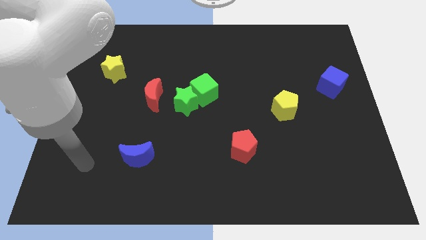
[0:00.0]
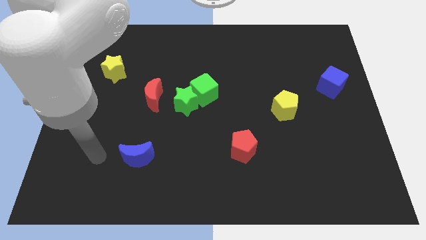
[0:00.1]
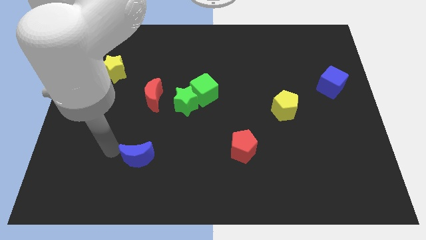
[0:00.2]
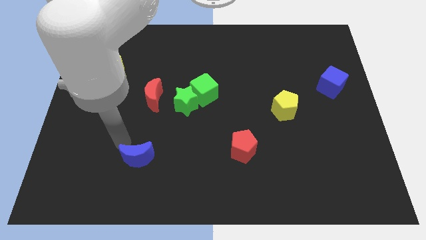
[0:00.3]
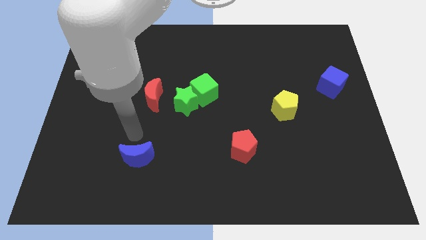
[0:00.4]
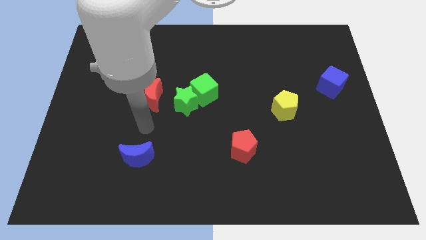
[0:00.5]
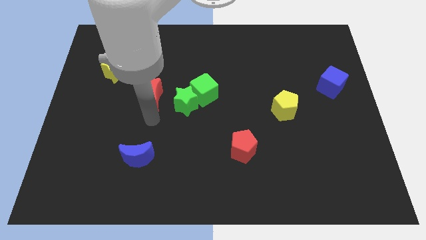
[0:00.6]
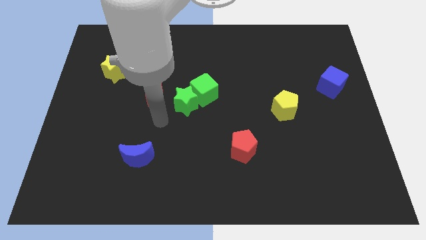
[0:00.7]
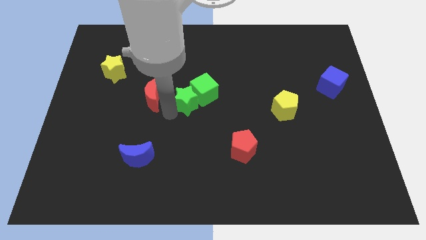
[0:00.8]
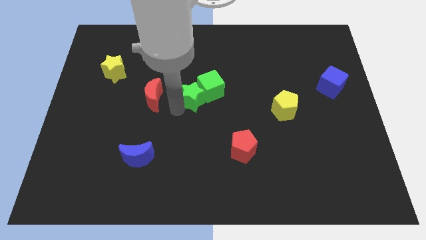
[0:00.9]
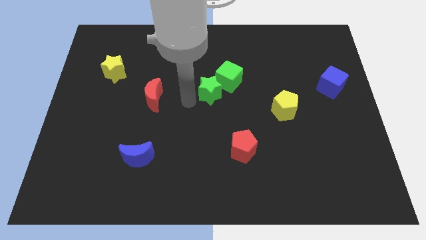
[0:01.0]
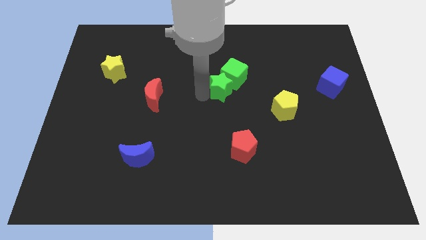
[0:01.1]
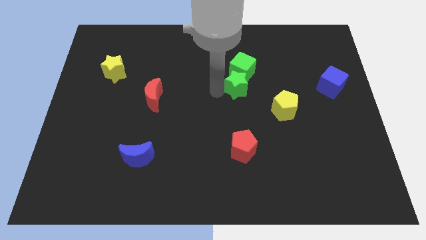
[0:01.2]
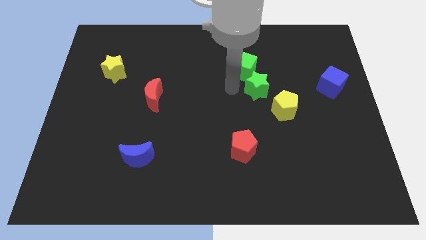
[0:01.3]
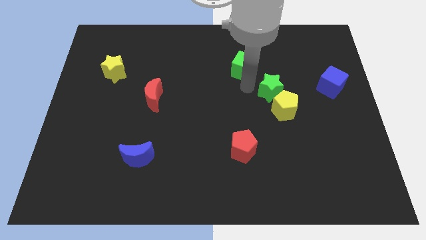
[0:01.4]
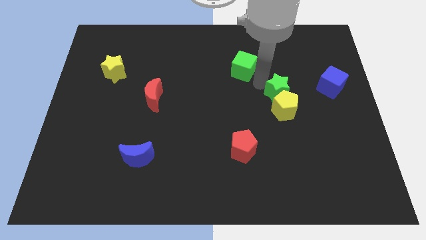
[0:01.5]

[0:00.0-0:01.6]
pull the green cube apart from the green star

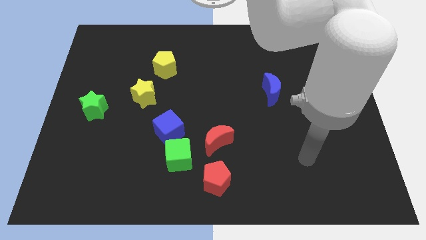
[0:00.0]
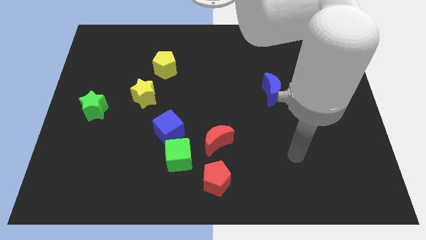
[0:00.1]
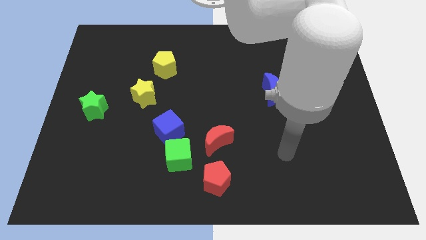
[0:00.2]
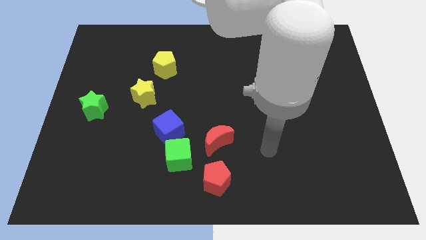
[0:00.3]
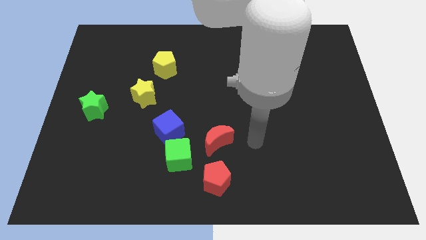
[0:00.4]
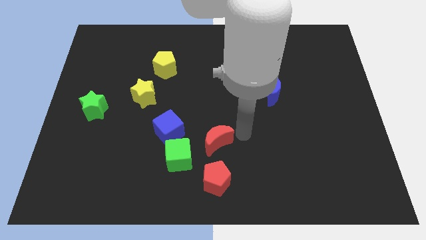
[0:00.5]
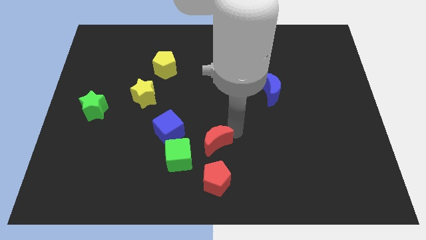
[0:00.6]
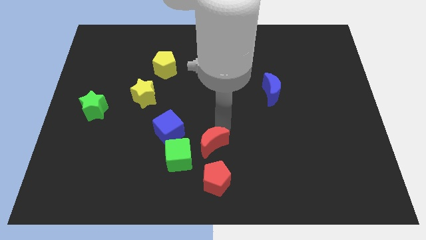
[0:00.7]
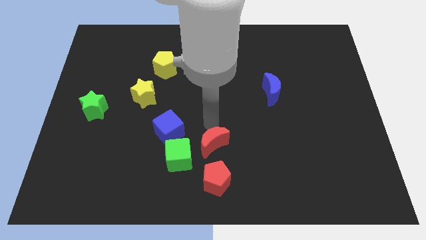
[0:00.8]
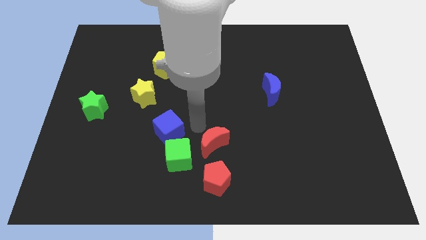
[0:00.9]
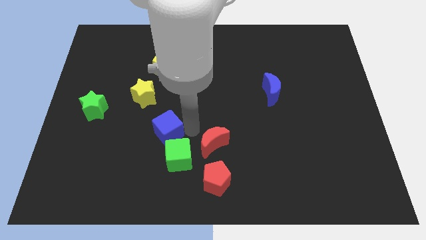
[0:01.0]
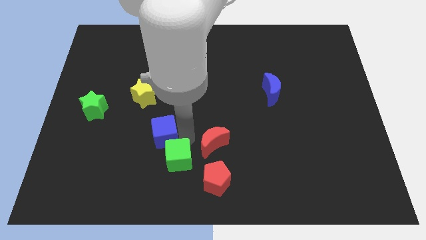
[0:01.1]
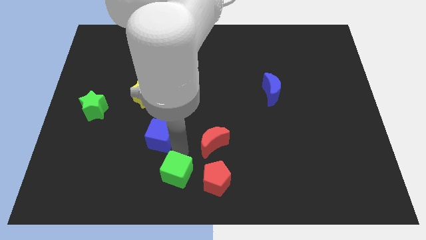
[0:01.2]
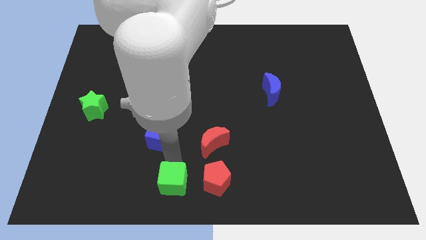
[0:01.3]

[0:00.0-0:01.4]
separate the blue cube from the green cube

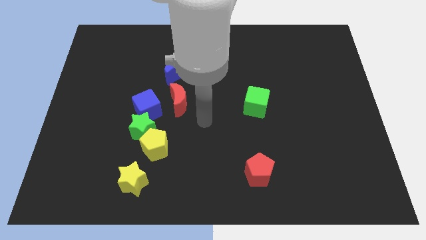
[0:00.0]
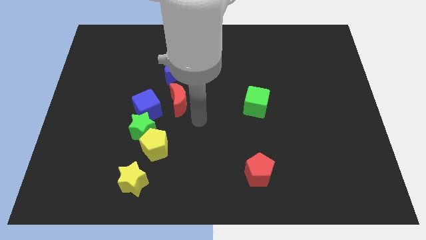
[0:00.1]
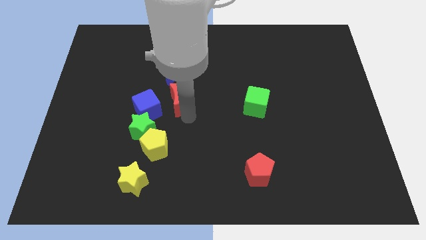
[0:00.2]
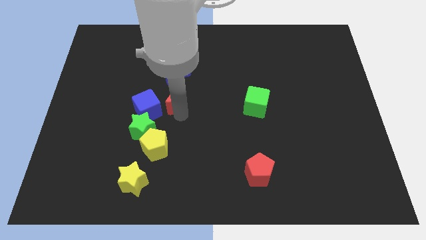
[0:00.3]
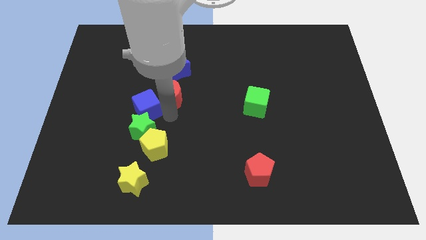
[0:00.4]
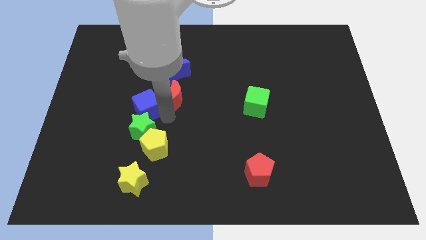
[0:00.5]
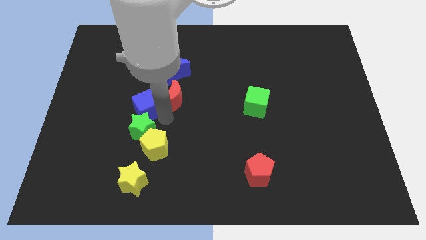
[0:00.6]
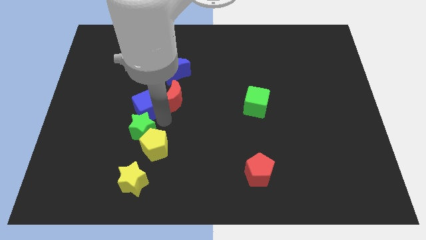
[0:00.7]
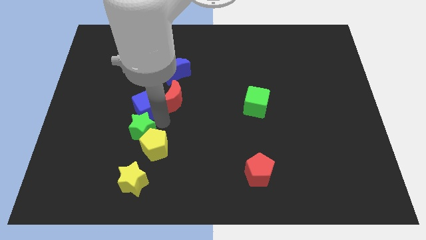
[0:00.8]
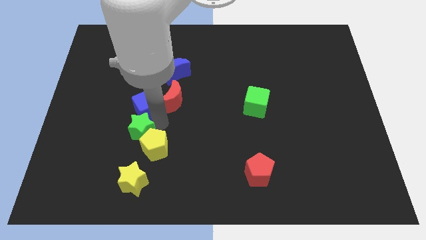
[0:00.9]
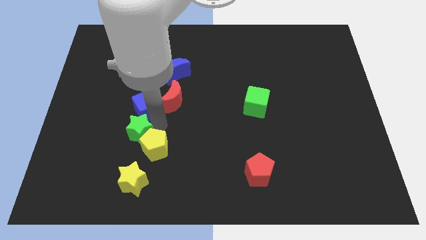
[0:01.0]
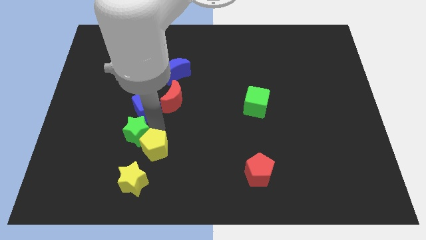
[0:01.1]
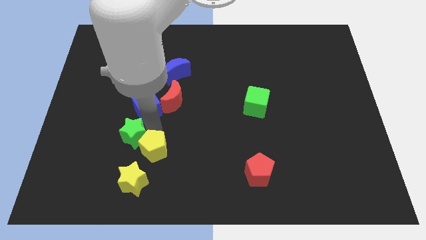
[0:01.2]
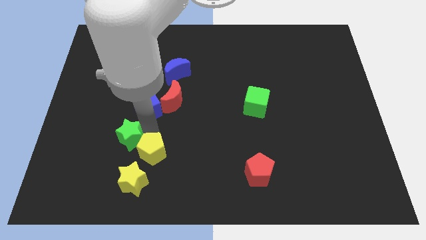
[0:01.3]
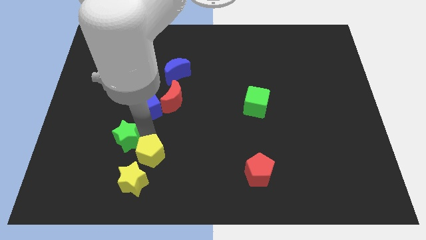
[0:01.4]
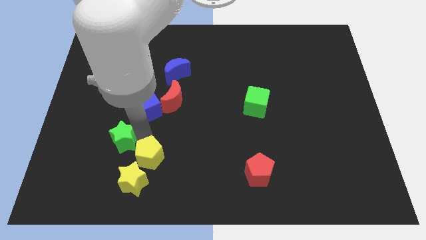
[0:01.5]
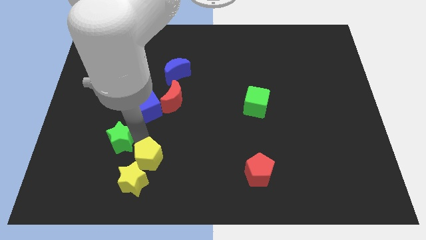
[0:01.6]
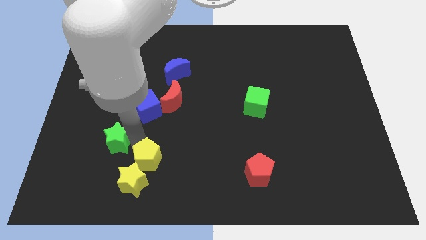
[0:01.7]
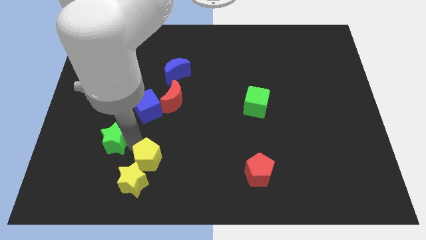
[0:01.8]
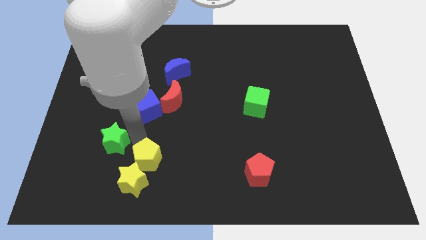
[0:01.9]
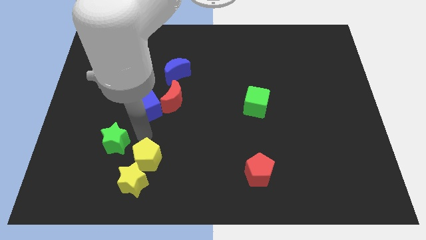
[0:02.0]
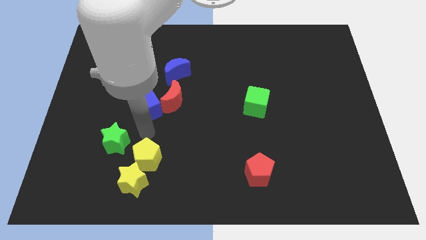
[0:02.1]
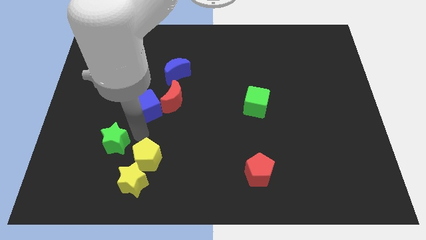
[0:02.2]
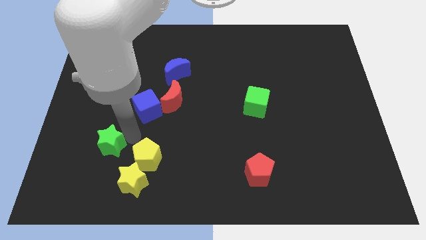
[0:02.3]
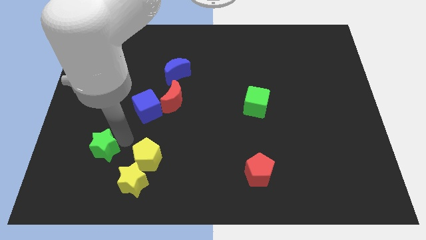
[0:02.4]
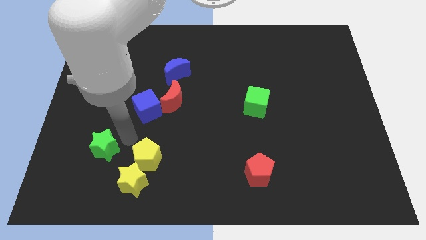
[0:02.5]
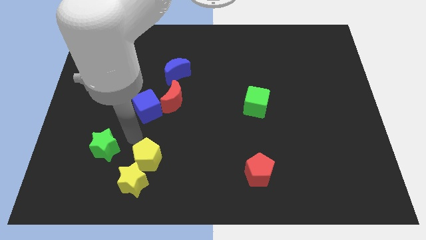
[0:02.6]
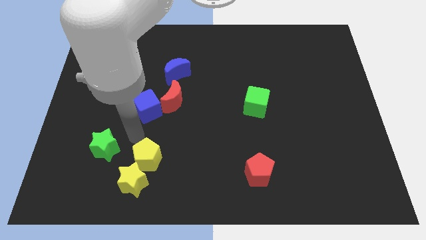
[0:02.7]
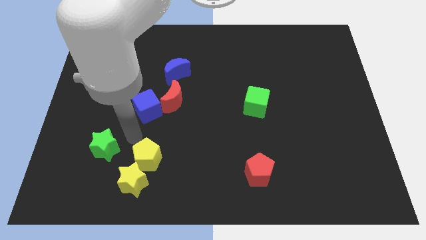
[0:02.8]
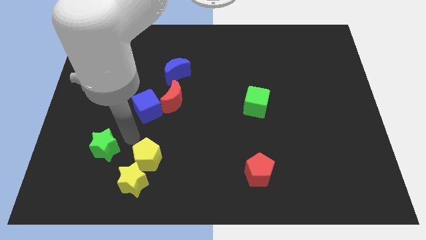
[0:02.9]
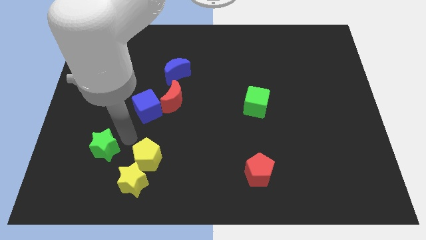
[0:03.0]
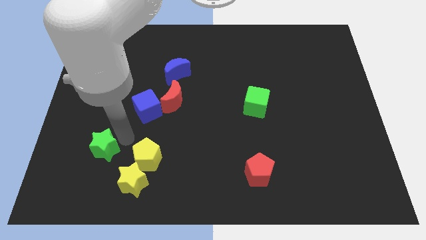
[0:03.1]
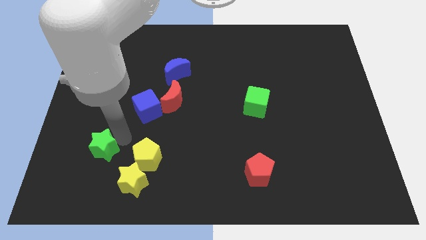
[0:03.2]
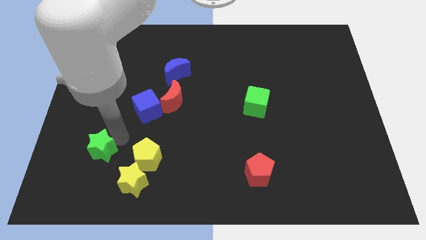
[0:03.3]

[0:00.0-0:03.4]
separate the green star from the yellow pentagon and blue cube

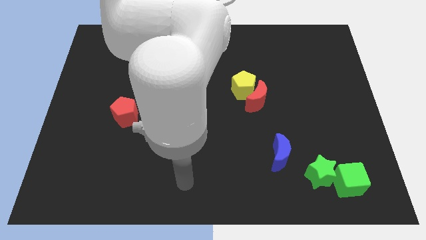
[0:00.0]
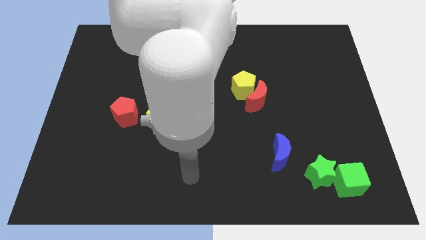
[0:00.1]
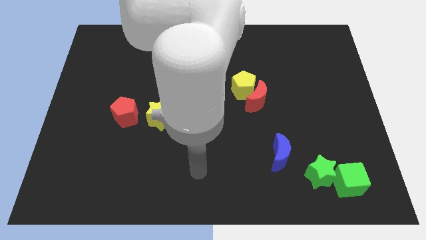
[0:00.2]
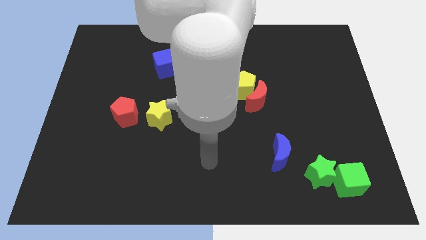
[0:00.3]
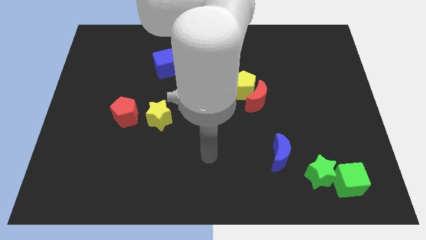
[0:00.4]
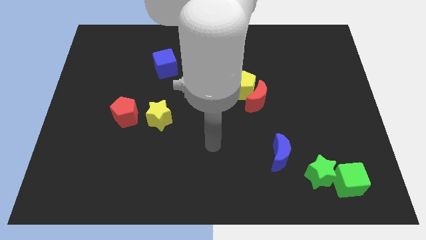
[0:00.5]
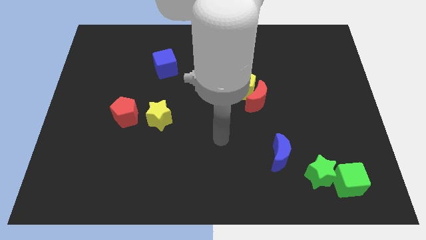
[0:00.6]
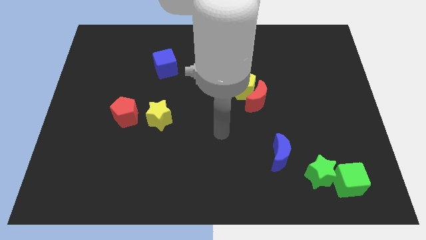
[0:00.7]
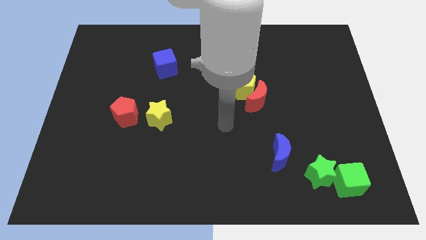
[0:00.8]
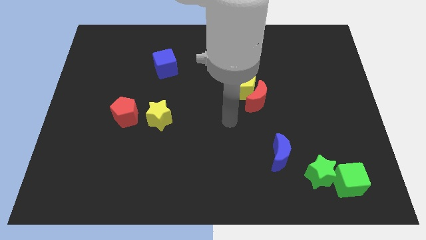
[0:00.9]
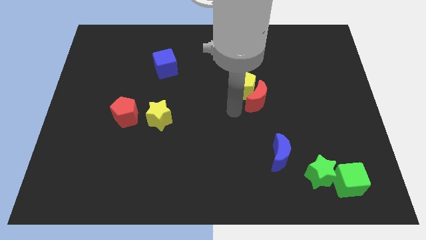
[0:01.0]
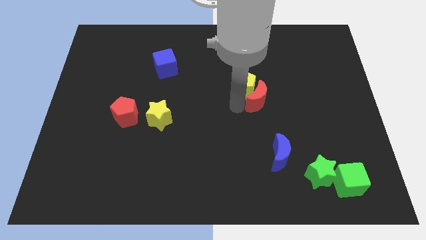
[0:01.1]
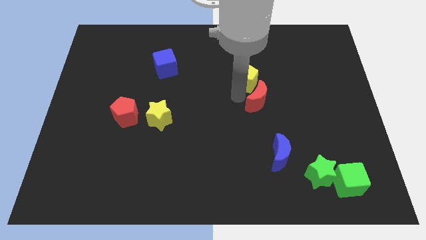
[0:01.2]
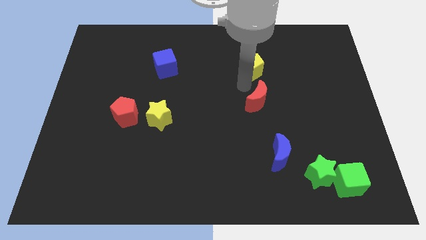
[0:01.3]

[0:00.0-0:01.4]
separate the red moon from the yellow pentagon

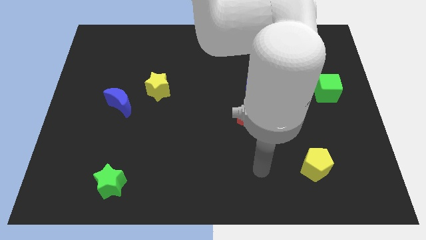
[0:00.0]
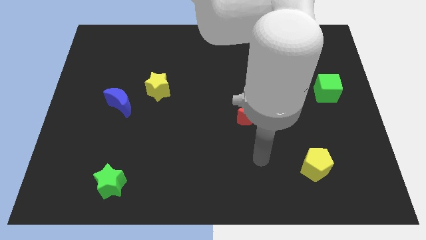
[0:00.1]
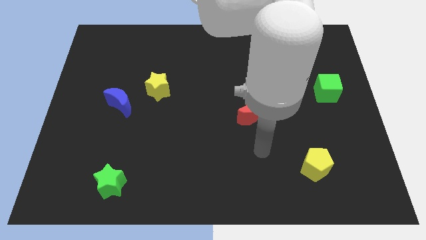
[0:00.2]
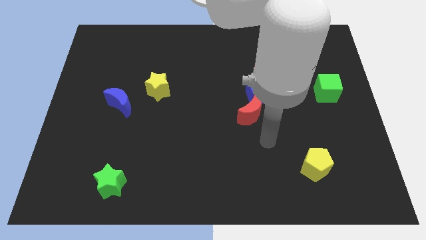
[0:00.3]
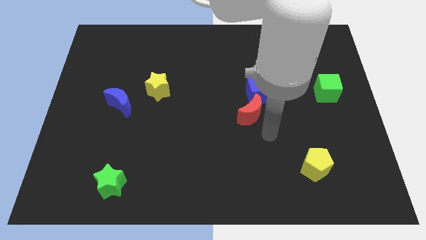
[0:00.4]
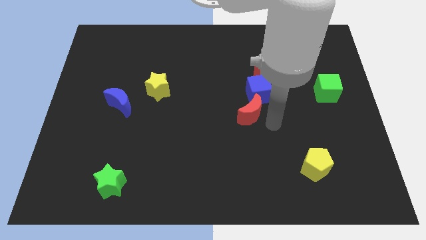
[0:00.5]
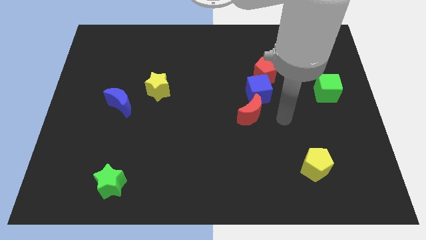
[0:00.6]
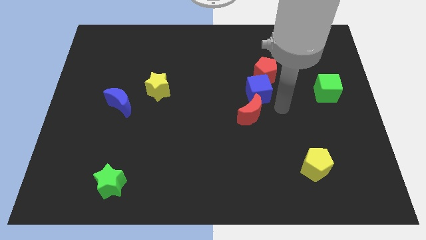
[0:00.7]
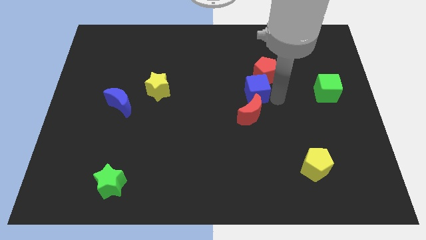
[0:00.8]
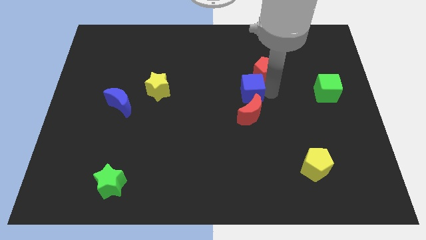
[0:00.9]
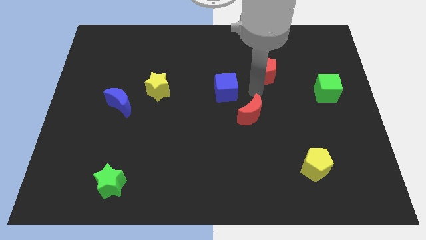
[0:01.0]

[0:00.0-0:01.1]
move the red pentagon away from the blue cube

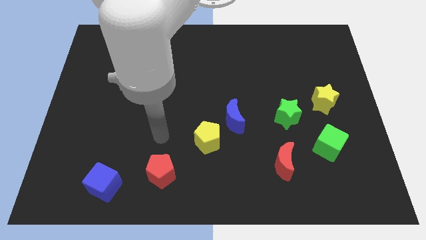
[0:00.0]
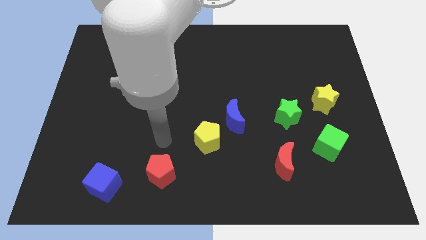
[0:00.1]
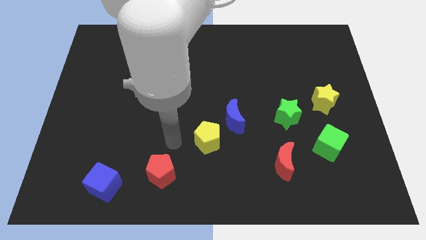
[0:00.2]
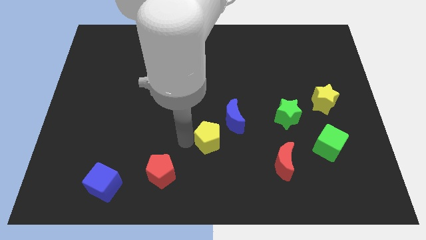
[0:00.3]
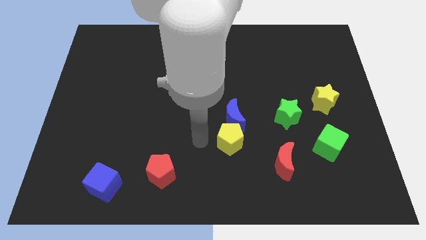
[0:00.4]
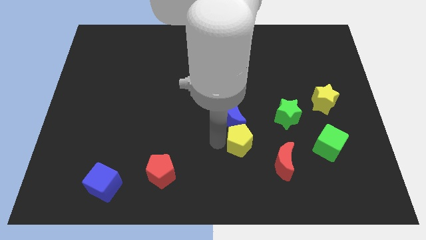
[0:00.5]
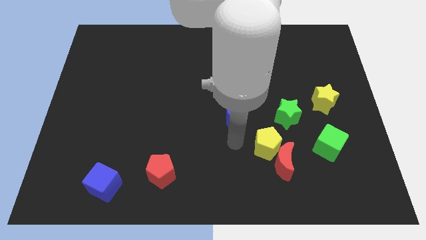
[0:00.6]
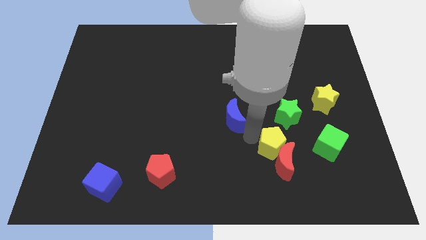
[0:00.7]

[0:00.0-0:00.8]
separate the blue moon from the yellow pentagon
